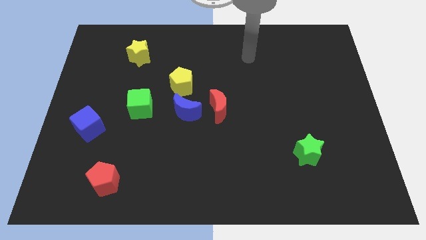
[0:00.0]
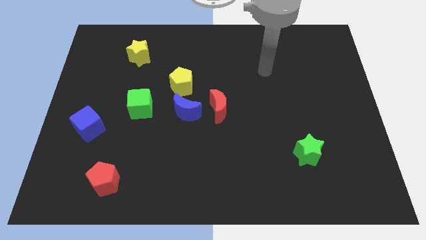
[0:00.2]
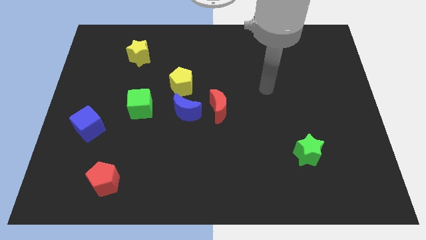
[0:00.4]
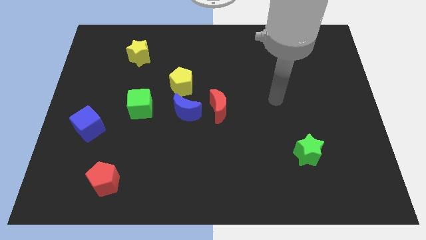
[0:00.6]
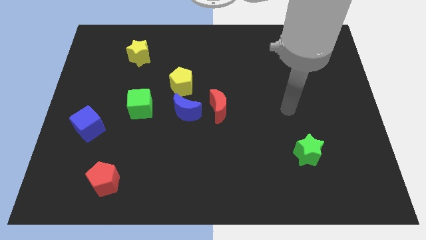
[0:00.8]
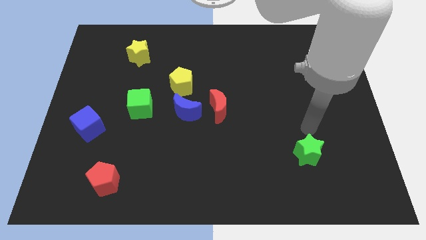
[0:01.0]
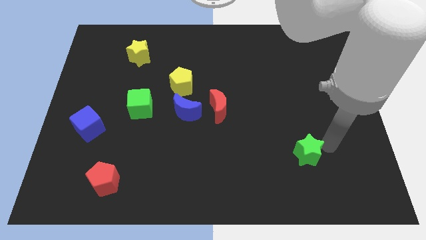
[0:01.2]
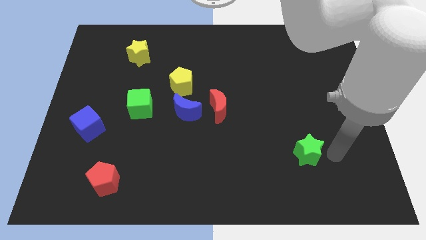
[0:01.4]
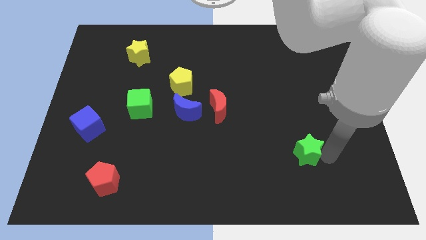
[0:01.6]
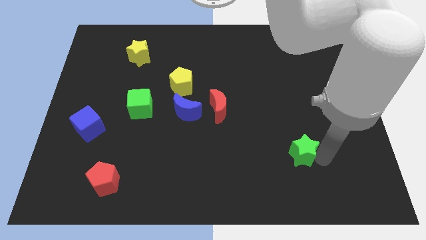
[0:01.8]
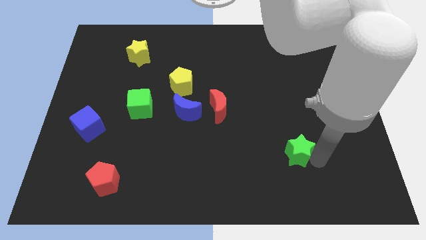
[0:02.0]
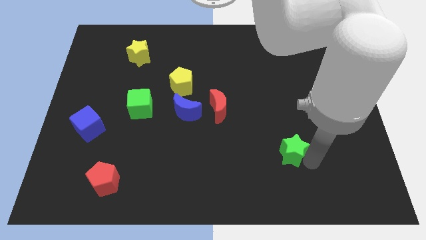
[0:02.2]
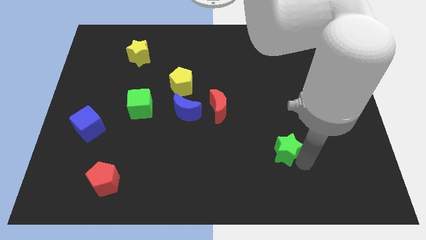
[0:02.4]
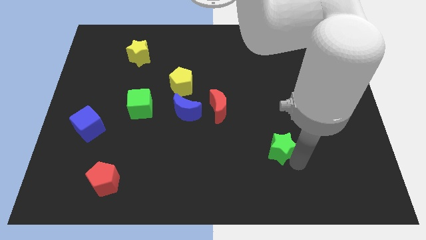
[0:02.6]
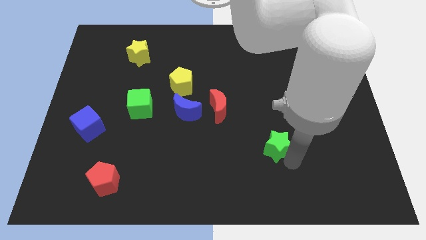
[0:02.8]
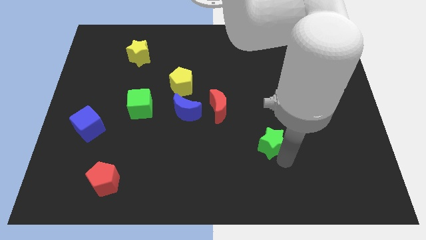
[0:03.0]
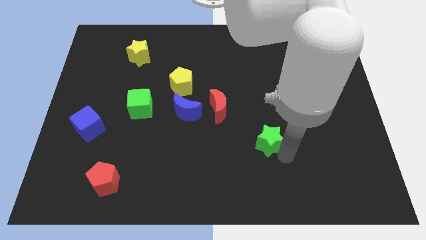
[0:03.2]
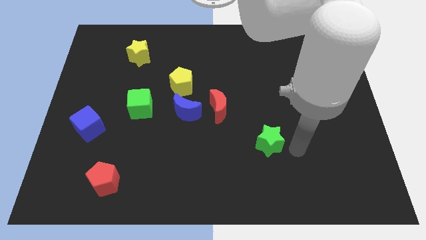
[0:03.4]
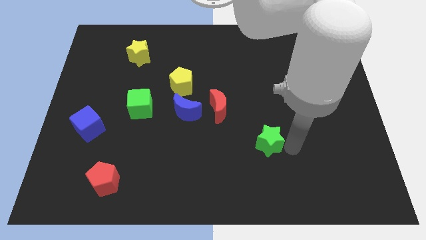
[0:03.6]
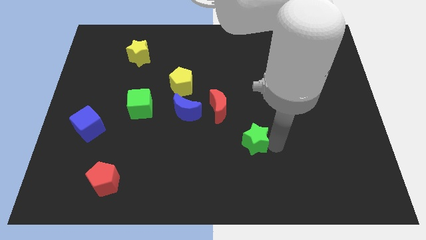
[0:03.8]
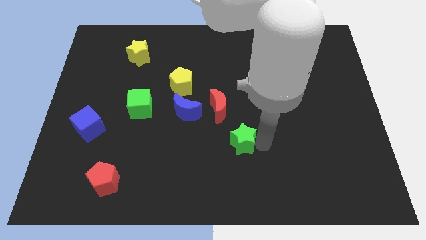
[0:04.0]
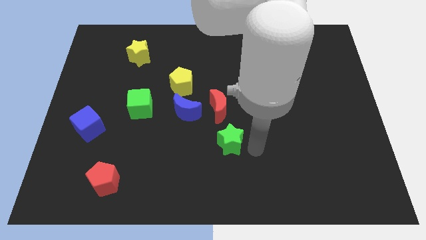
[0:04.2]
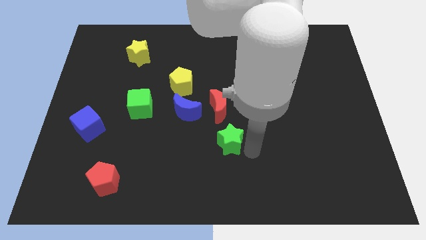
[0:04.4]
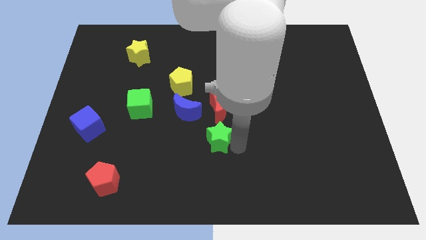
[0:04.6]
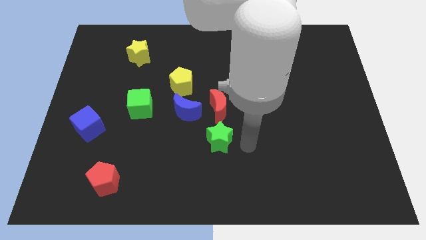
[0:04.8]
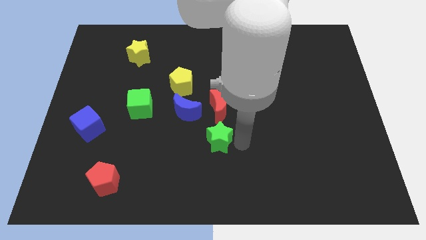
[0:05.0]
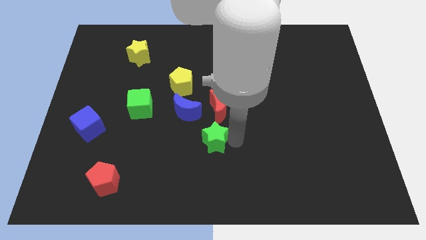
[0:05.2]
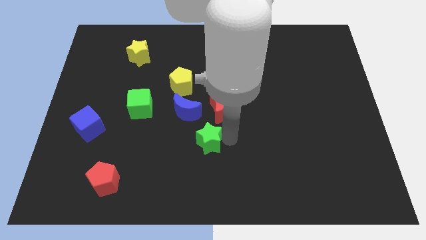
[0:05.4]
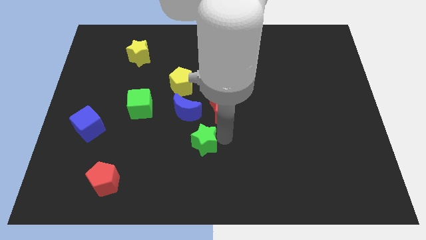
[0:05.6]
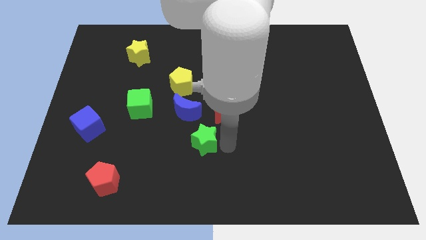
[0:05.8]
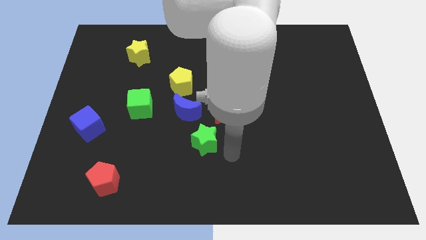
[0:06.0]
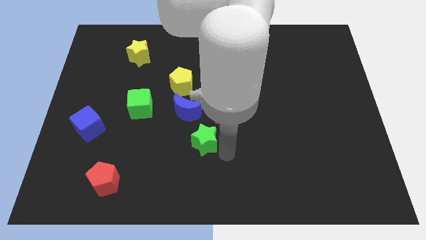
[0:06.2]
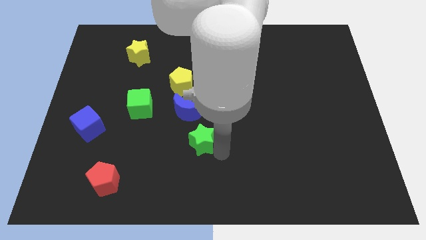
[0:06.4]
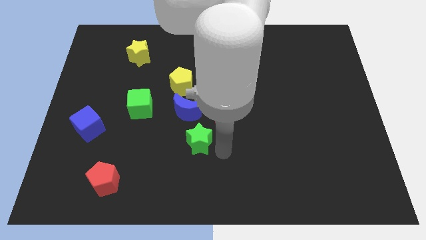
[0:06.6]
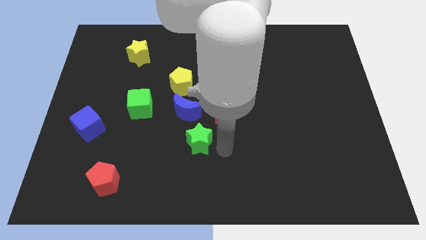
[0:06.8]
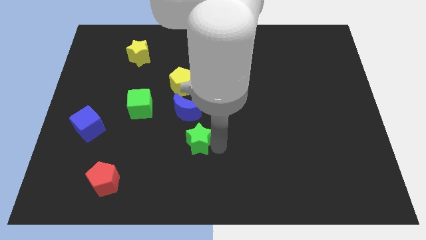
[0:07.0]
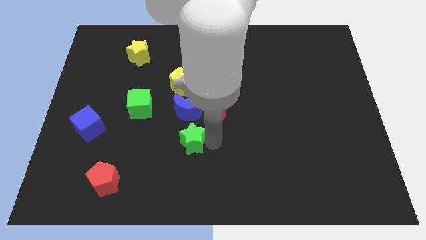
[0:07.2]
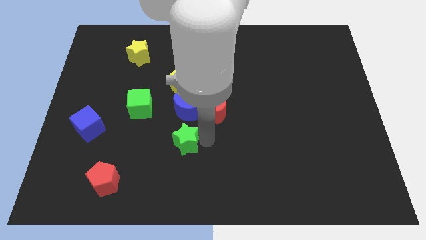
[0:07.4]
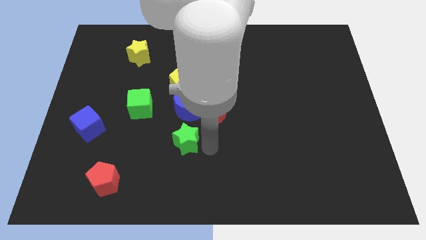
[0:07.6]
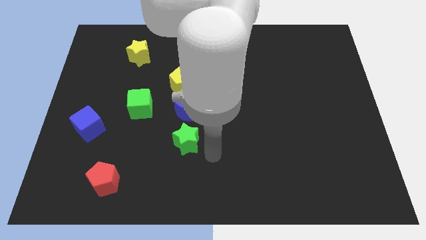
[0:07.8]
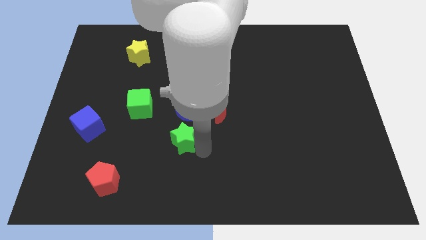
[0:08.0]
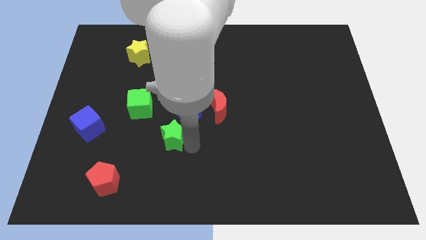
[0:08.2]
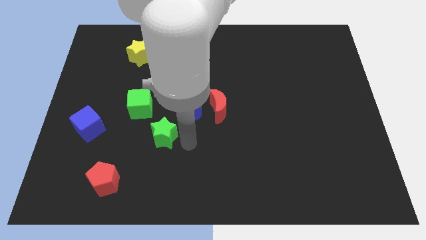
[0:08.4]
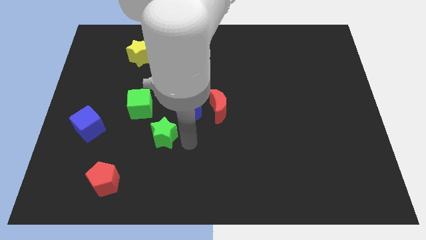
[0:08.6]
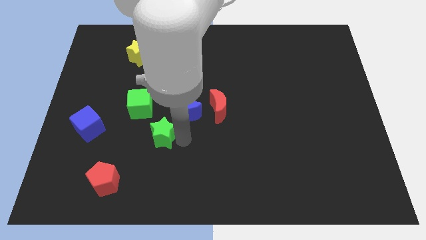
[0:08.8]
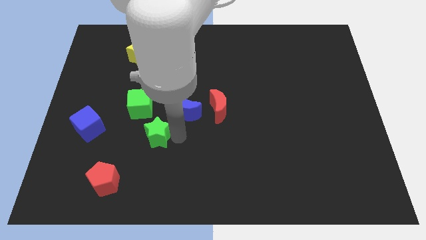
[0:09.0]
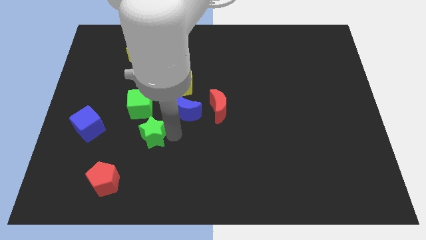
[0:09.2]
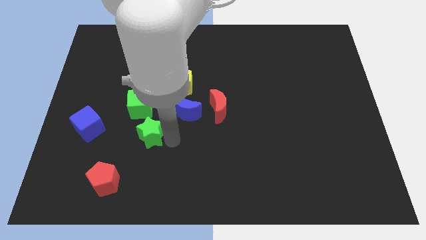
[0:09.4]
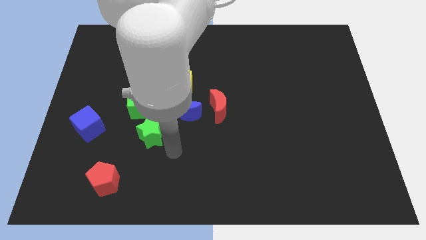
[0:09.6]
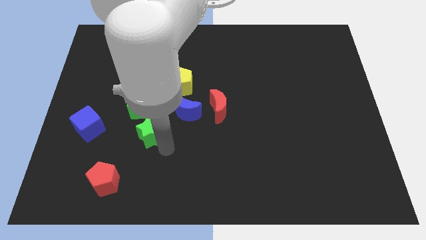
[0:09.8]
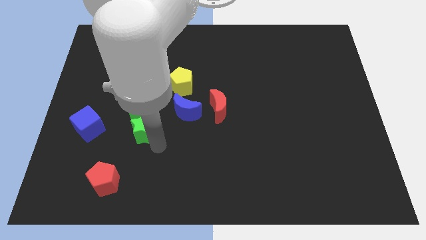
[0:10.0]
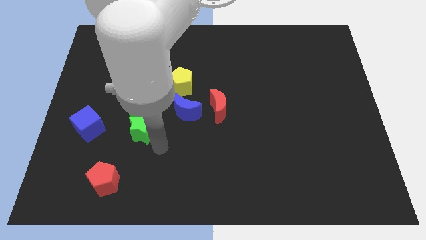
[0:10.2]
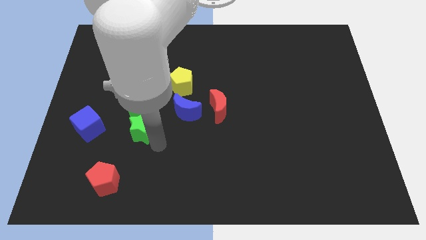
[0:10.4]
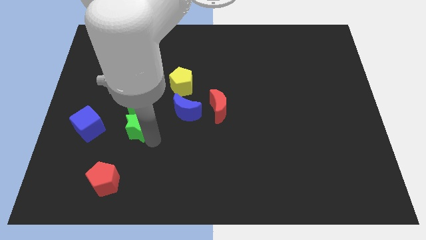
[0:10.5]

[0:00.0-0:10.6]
put the green star just left of the blue moon

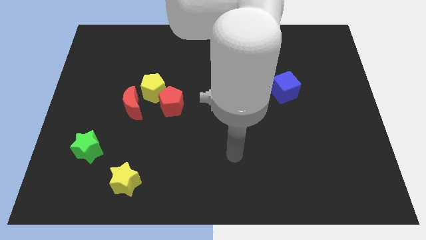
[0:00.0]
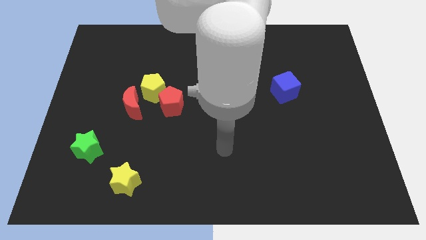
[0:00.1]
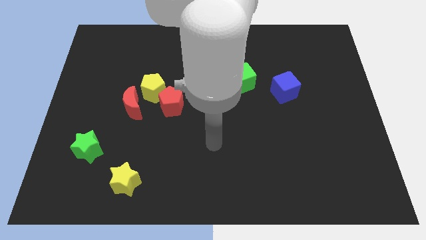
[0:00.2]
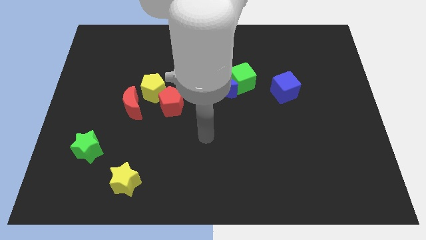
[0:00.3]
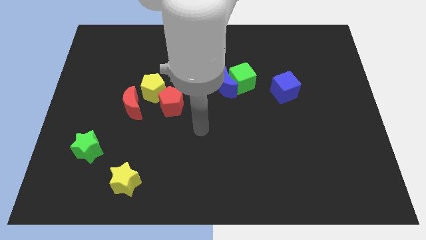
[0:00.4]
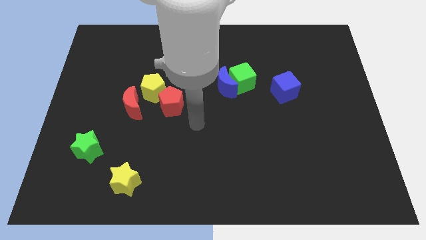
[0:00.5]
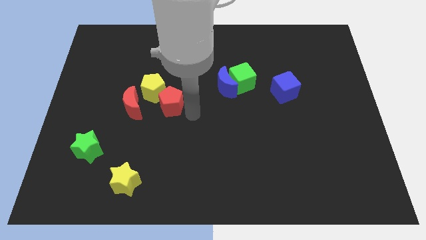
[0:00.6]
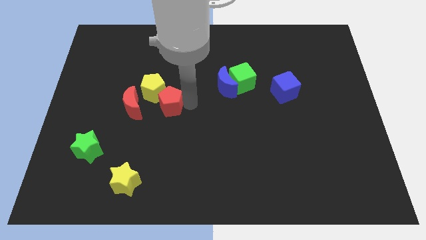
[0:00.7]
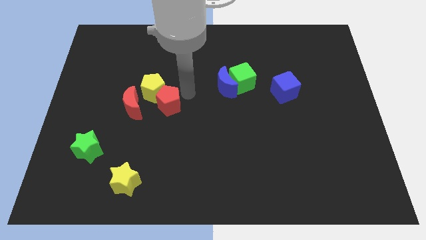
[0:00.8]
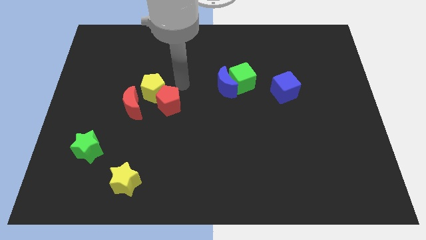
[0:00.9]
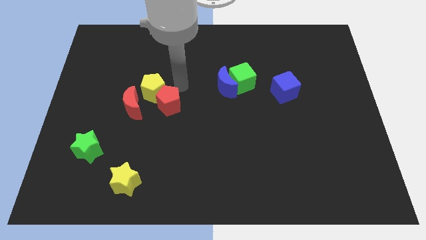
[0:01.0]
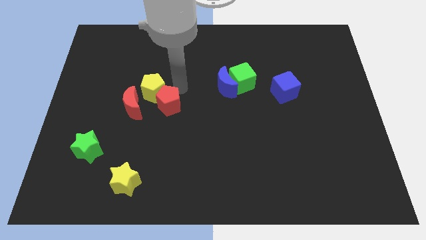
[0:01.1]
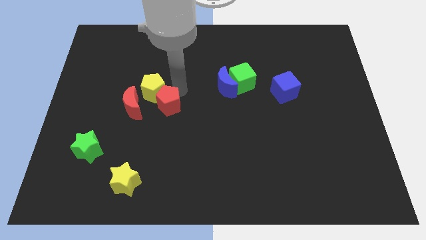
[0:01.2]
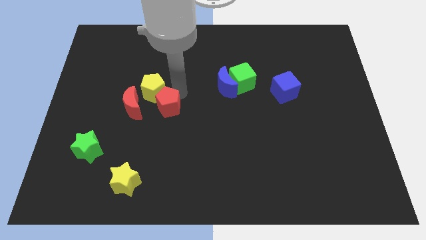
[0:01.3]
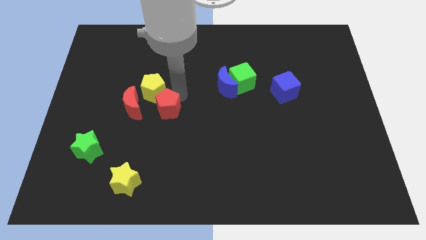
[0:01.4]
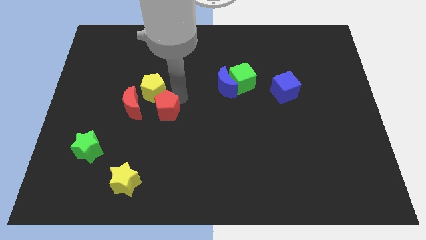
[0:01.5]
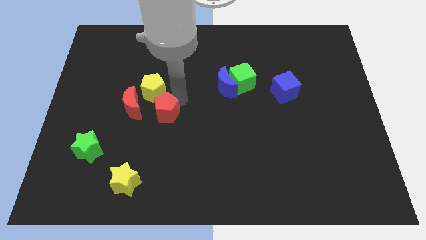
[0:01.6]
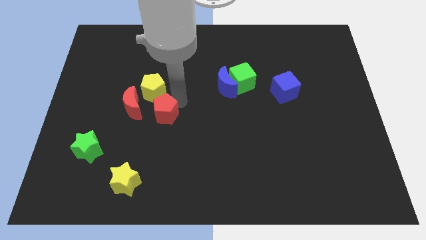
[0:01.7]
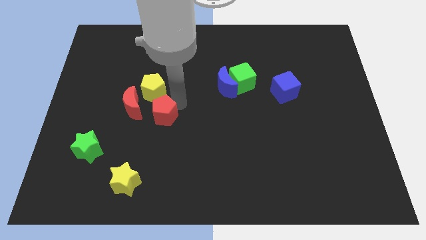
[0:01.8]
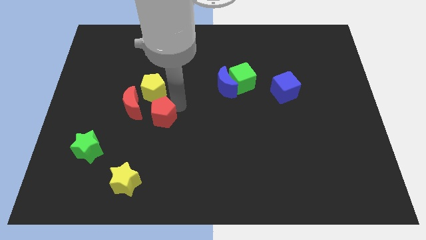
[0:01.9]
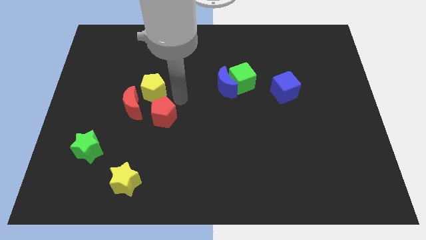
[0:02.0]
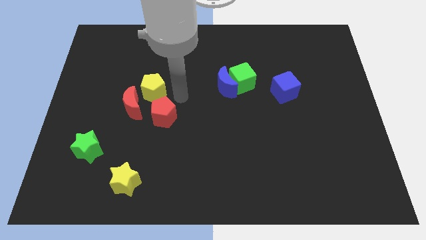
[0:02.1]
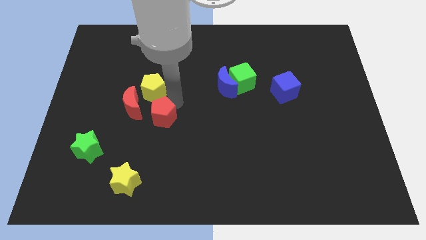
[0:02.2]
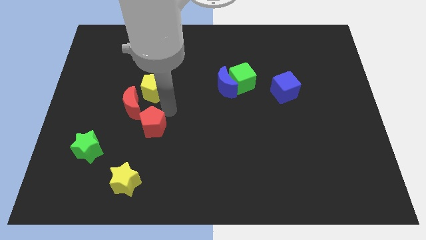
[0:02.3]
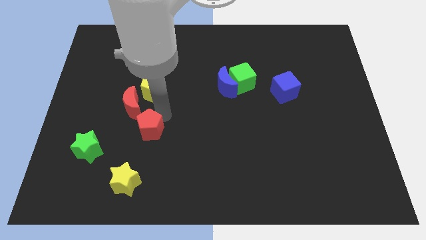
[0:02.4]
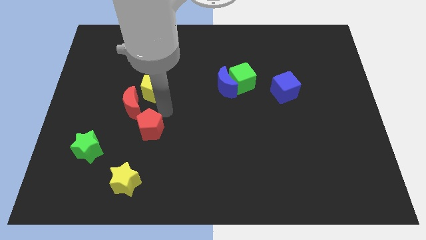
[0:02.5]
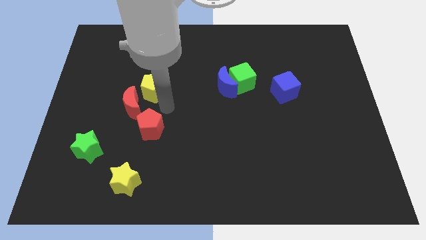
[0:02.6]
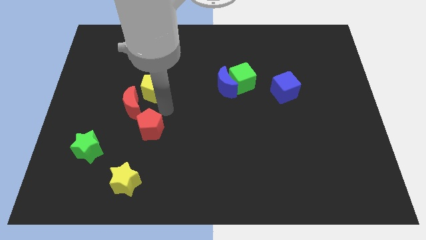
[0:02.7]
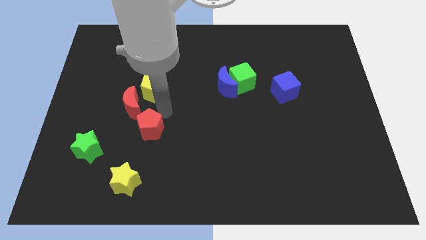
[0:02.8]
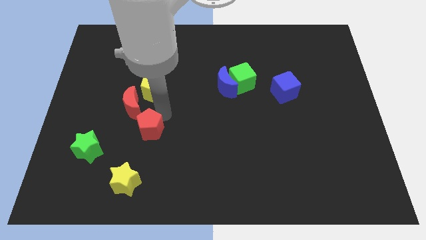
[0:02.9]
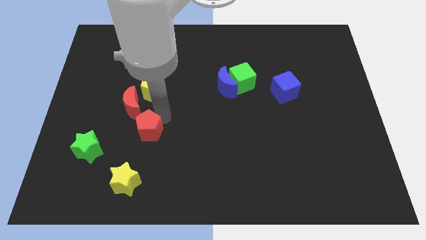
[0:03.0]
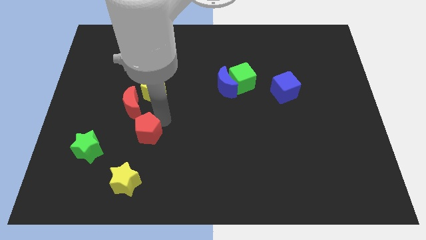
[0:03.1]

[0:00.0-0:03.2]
put the red pentagon just right of the green star
